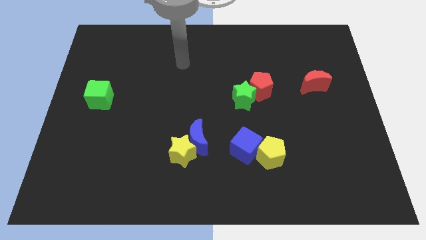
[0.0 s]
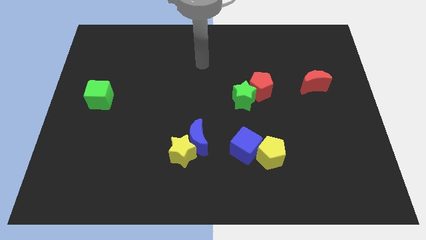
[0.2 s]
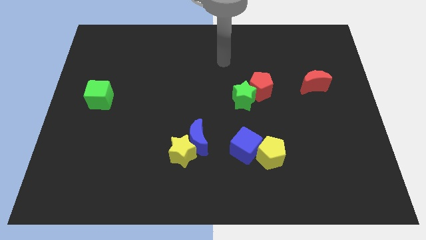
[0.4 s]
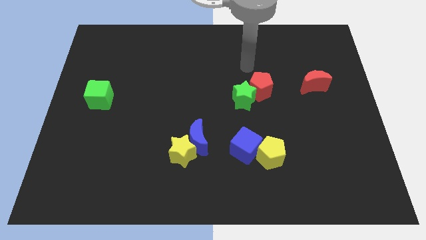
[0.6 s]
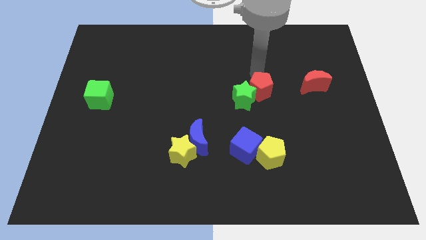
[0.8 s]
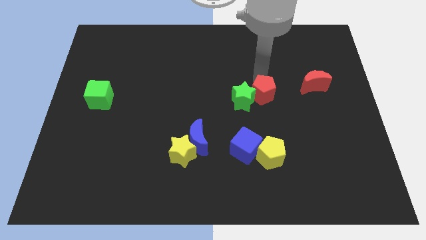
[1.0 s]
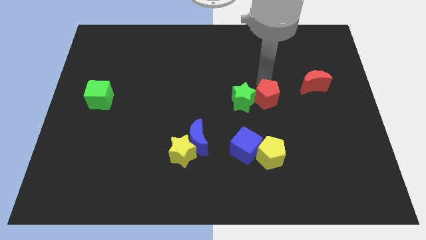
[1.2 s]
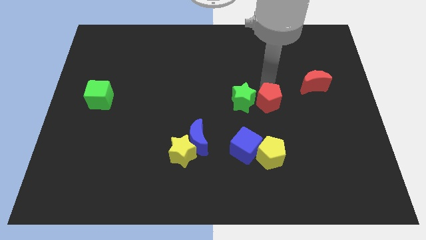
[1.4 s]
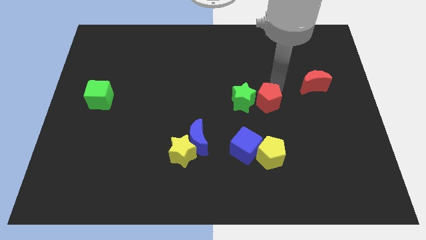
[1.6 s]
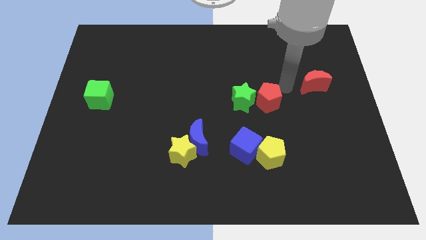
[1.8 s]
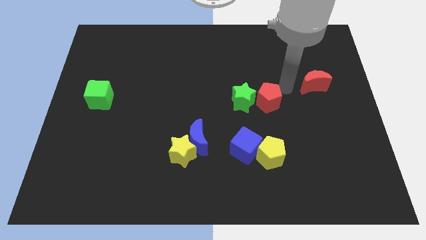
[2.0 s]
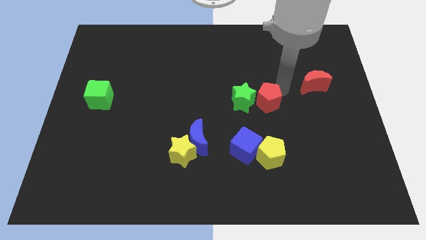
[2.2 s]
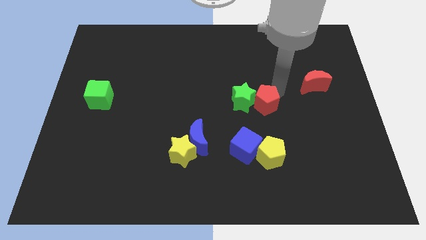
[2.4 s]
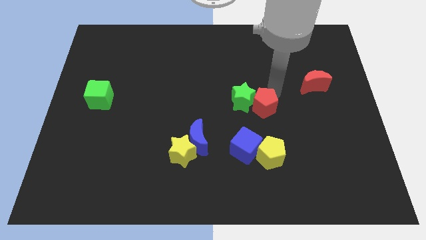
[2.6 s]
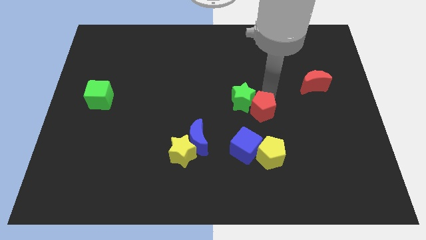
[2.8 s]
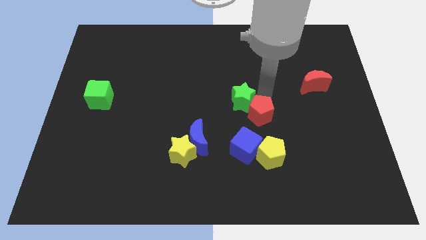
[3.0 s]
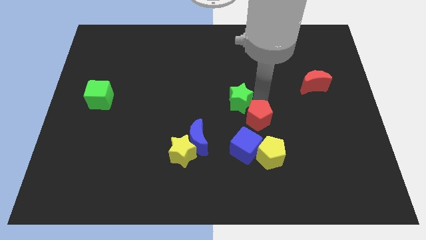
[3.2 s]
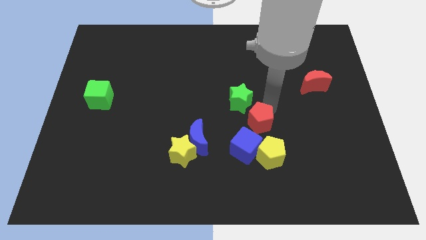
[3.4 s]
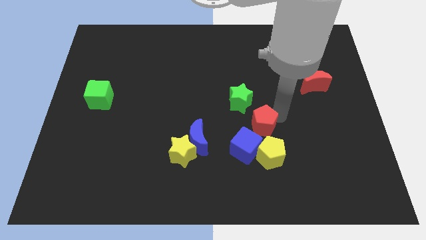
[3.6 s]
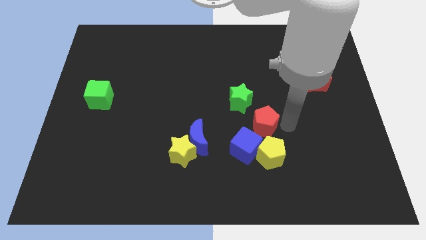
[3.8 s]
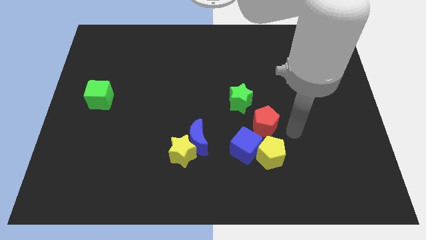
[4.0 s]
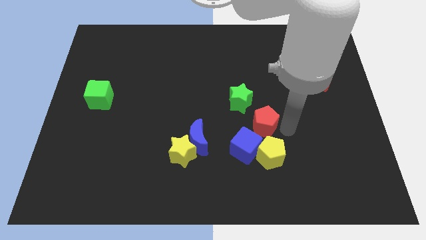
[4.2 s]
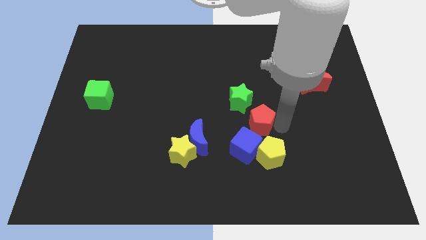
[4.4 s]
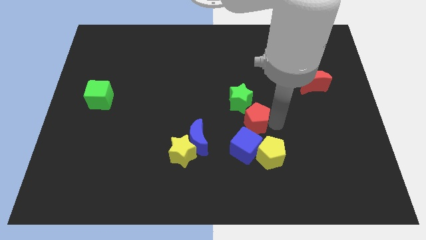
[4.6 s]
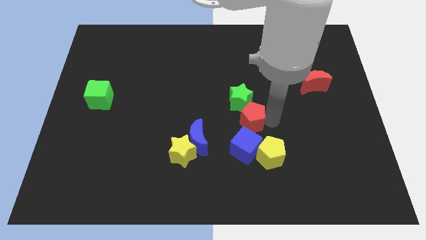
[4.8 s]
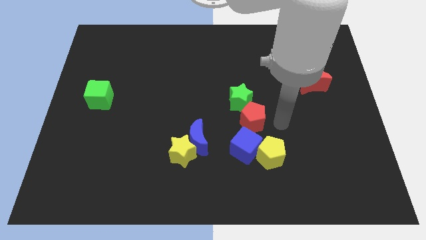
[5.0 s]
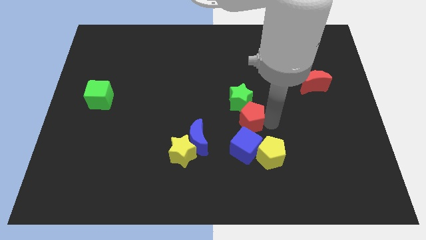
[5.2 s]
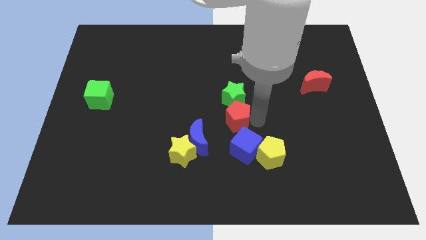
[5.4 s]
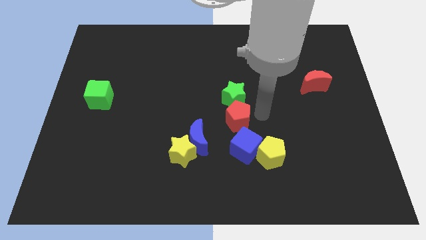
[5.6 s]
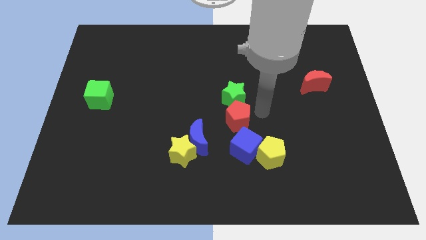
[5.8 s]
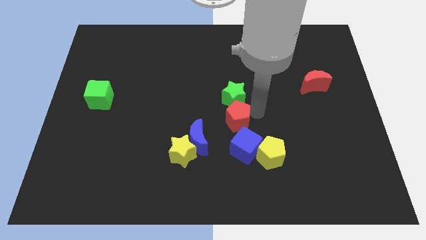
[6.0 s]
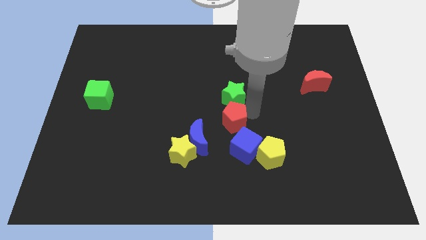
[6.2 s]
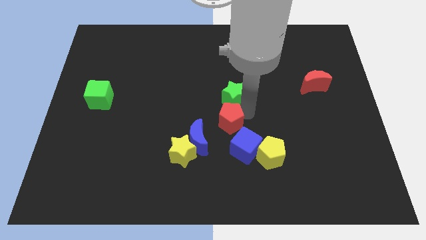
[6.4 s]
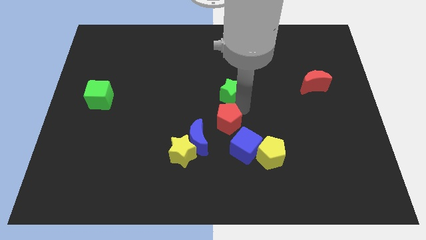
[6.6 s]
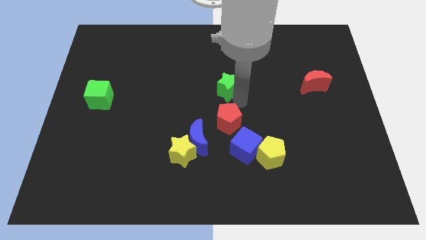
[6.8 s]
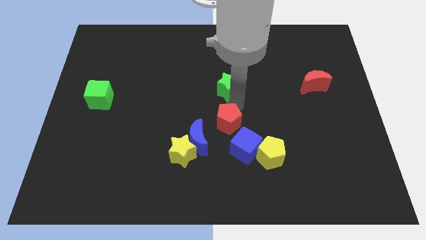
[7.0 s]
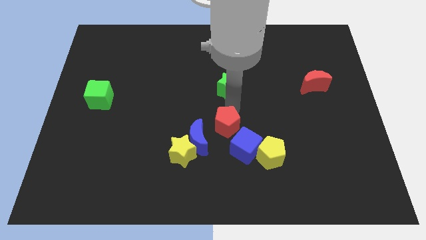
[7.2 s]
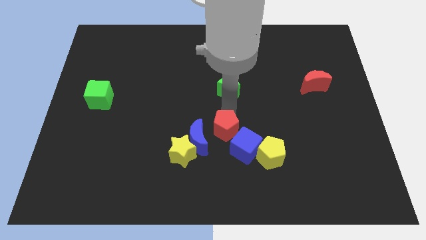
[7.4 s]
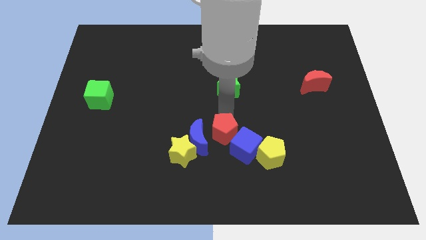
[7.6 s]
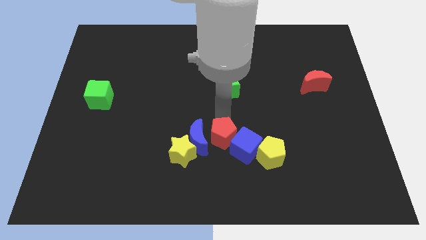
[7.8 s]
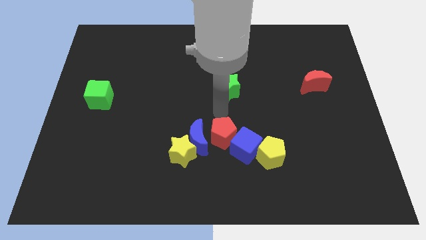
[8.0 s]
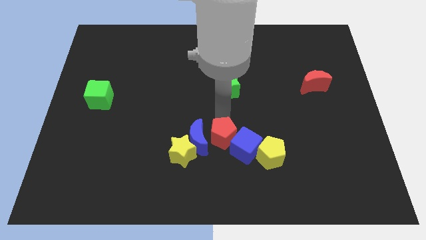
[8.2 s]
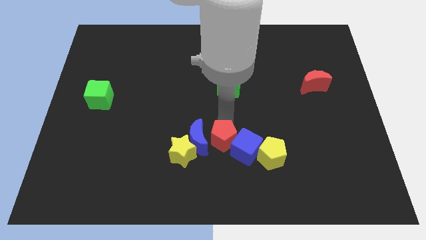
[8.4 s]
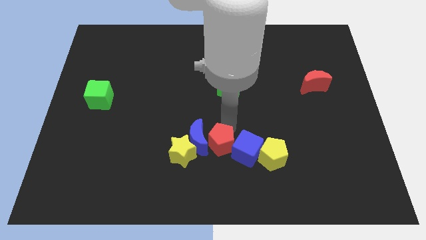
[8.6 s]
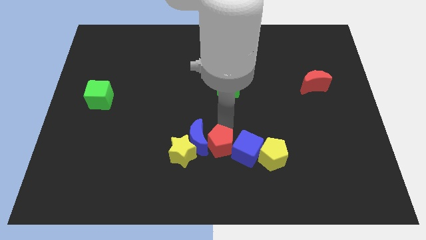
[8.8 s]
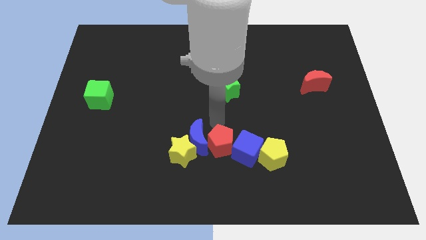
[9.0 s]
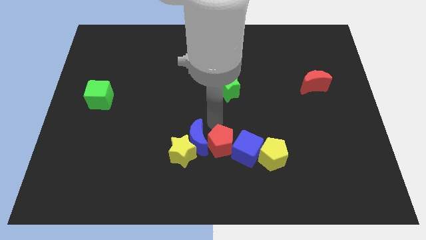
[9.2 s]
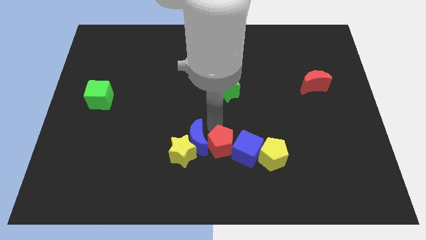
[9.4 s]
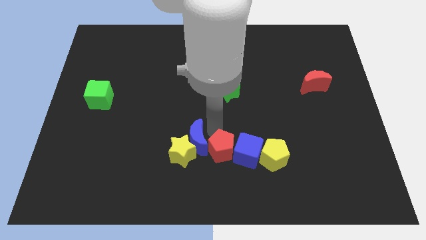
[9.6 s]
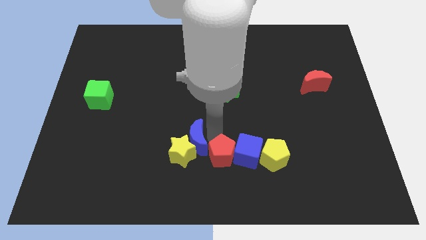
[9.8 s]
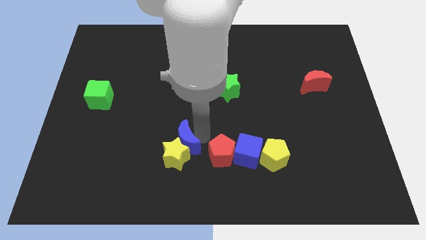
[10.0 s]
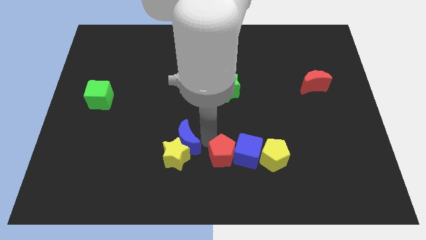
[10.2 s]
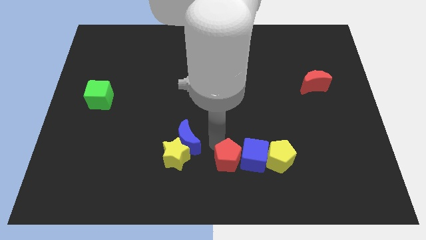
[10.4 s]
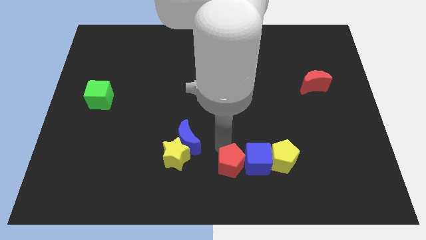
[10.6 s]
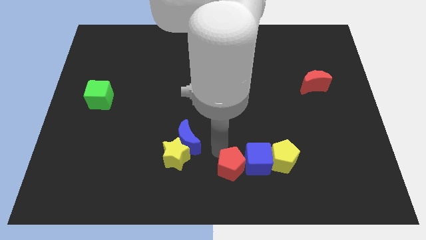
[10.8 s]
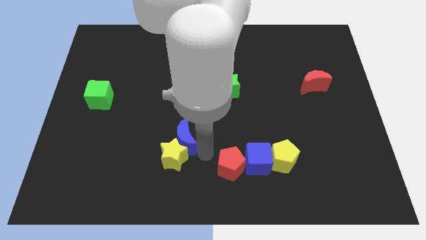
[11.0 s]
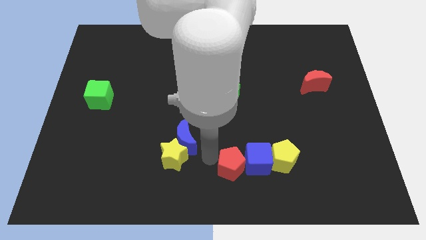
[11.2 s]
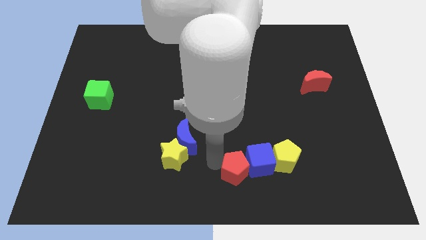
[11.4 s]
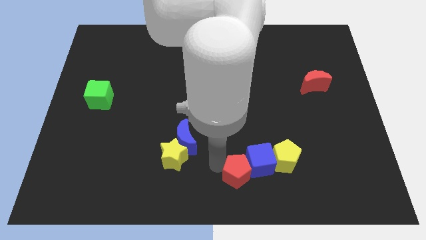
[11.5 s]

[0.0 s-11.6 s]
move the red pentagon to the bottom left side of the yellow pentagon

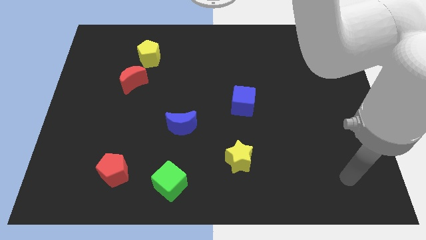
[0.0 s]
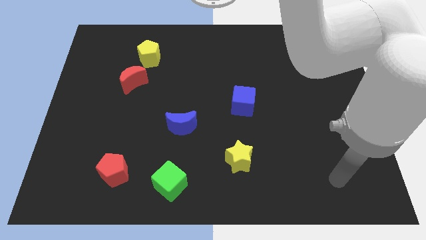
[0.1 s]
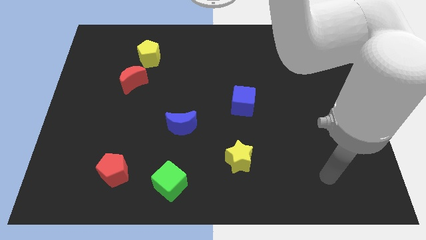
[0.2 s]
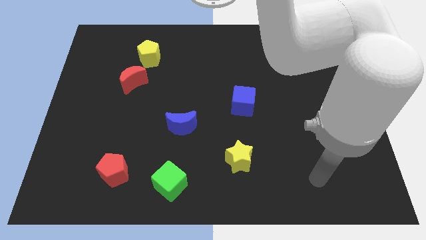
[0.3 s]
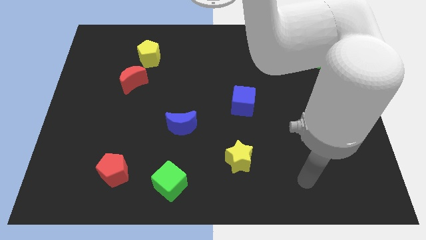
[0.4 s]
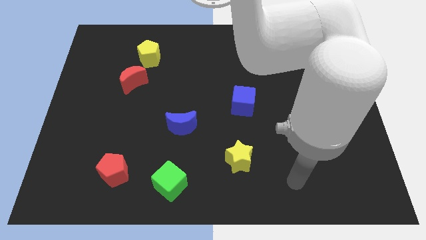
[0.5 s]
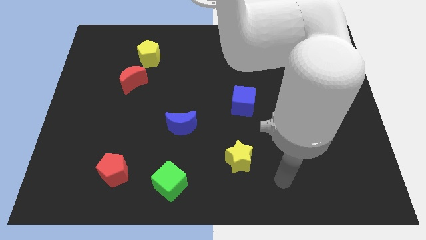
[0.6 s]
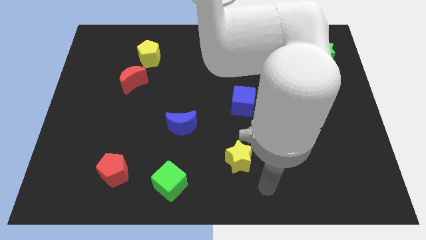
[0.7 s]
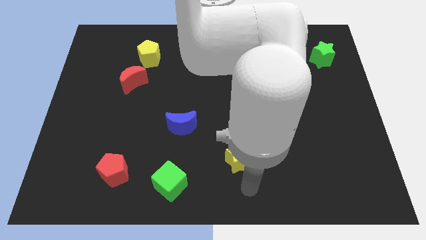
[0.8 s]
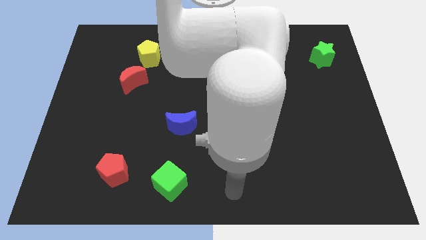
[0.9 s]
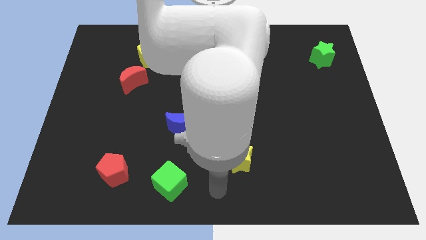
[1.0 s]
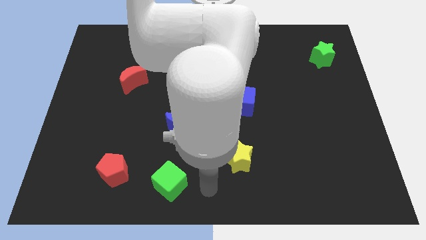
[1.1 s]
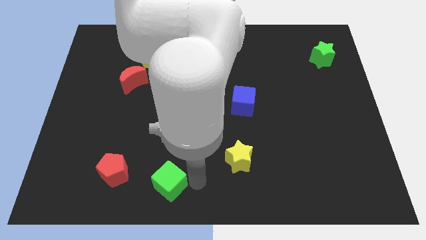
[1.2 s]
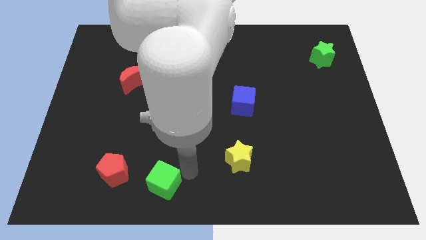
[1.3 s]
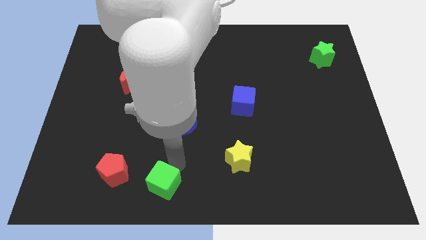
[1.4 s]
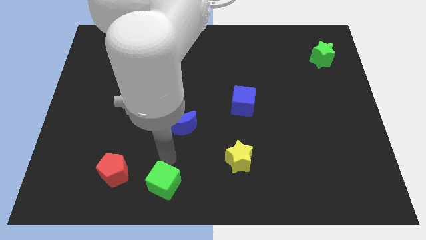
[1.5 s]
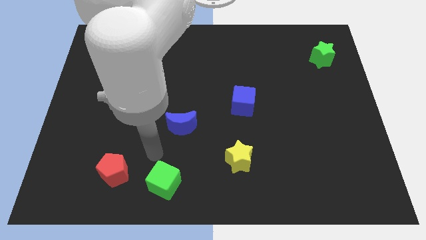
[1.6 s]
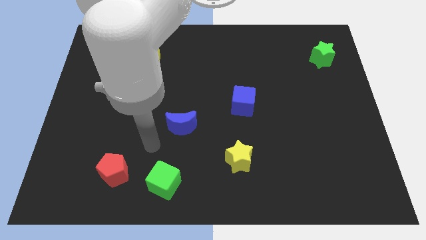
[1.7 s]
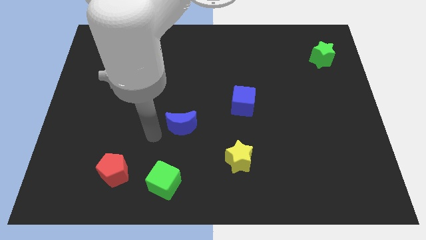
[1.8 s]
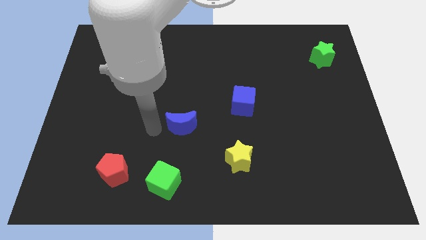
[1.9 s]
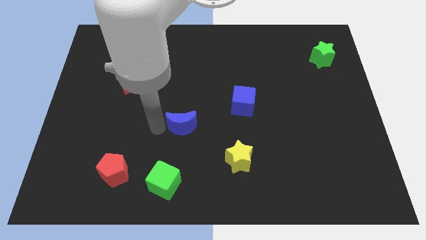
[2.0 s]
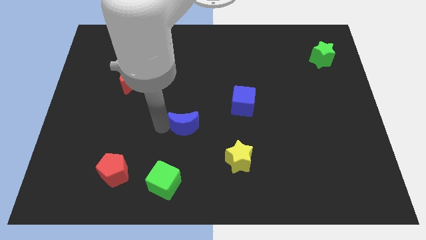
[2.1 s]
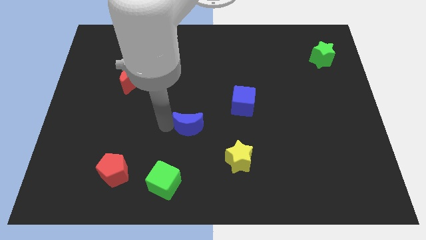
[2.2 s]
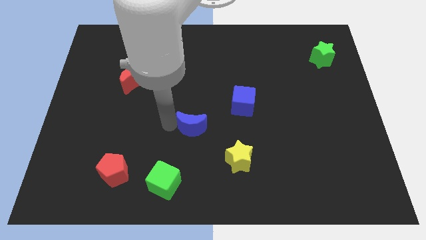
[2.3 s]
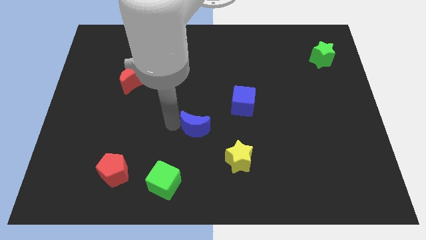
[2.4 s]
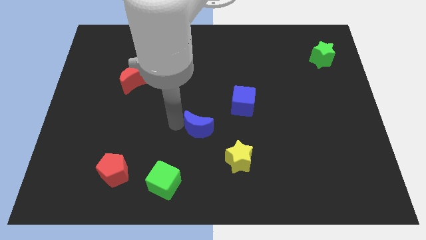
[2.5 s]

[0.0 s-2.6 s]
push the blue moon to the bottom left of the blue cube

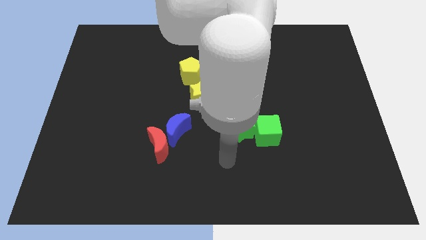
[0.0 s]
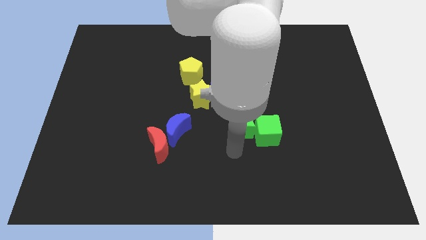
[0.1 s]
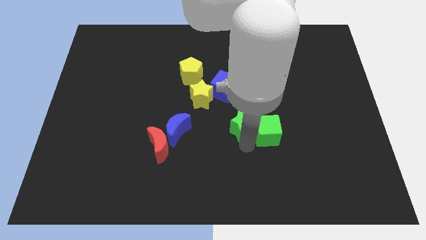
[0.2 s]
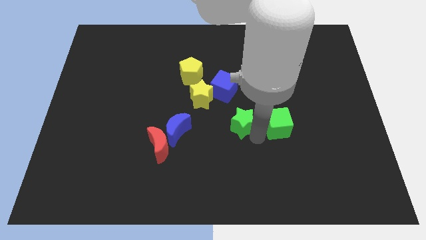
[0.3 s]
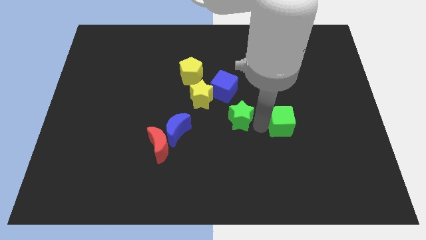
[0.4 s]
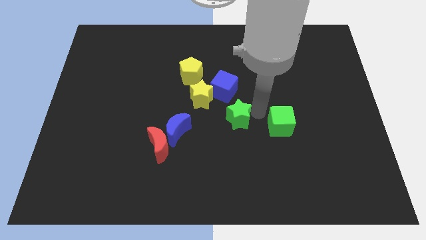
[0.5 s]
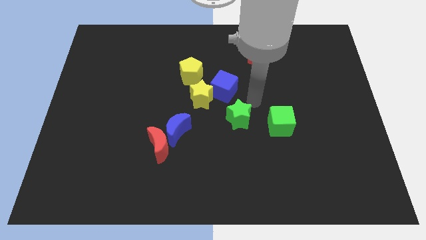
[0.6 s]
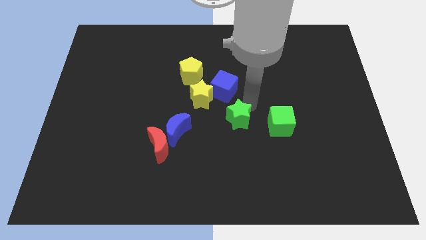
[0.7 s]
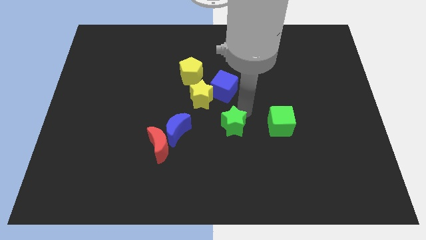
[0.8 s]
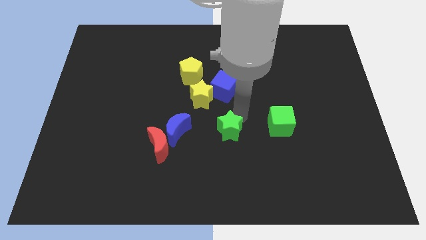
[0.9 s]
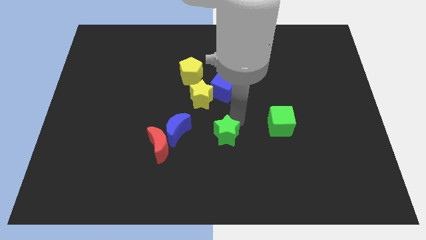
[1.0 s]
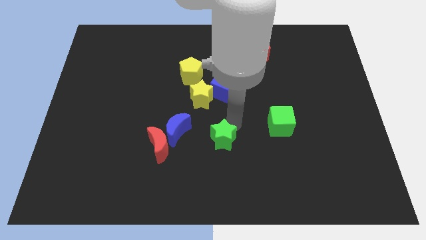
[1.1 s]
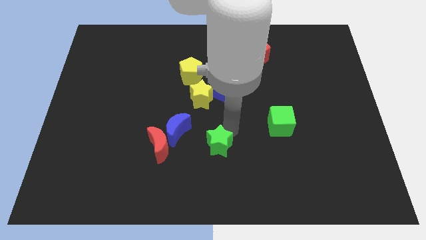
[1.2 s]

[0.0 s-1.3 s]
put the green star diagonally down and to the right of the blue moon
